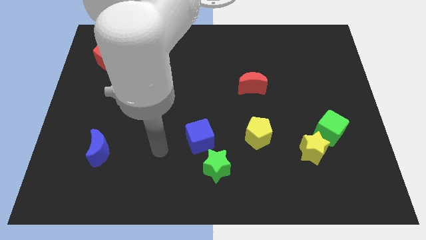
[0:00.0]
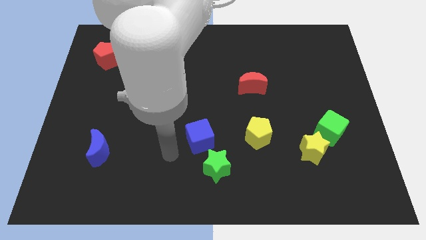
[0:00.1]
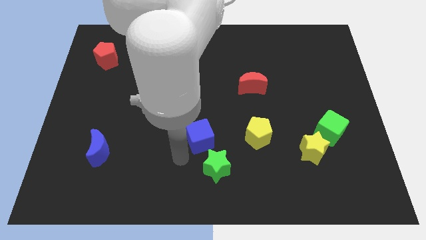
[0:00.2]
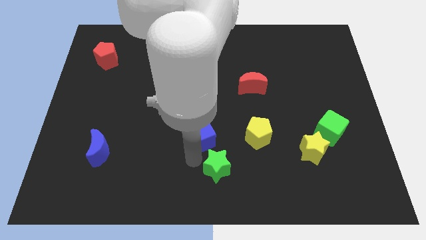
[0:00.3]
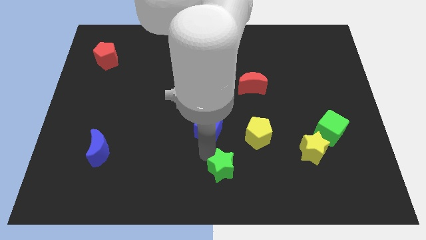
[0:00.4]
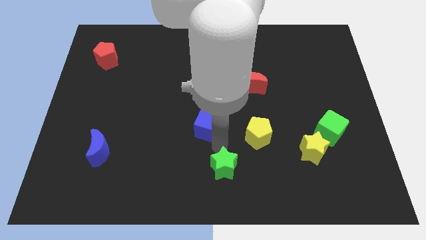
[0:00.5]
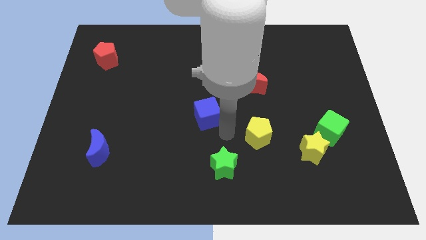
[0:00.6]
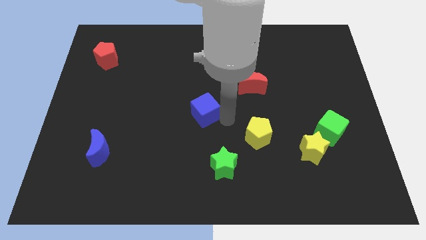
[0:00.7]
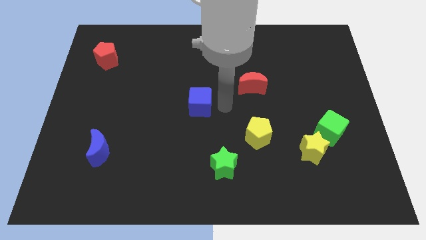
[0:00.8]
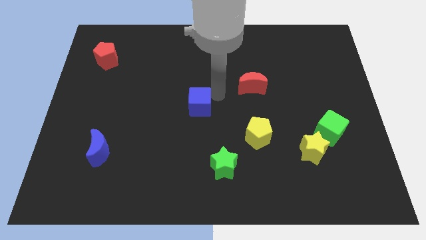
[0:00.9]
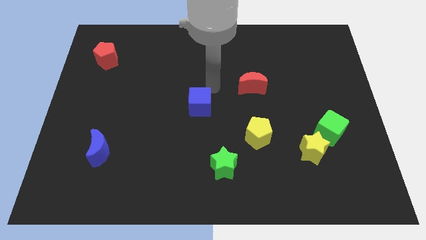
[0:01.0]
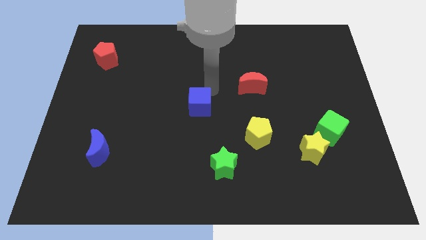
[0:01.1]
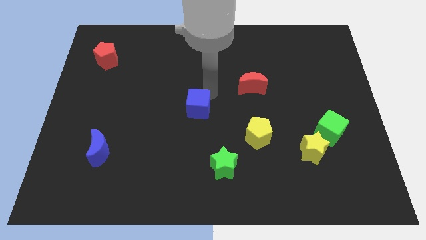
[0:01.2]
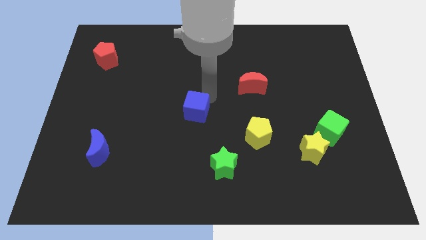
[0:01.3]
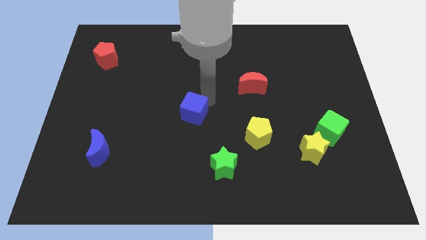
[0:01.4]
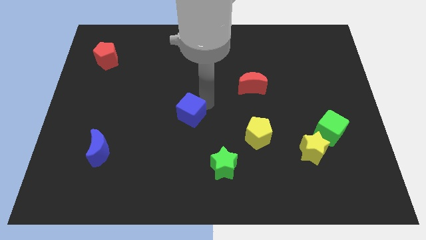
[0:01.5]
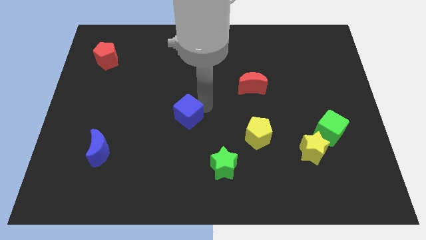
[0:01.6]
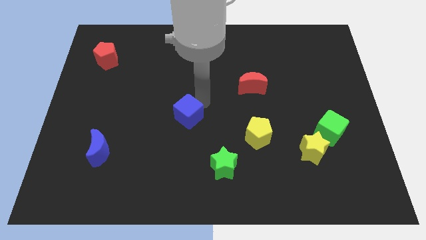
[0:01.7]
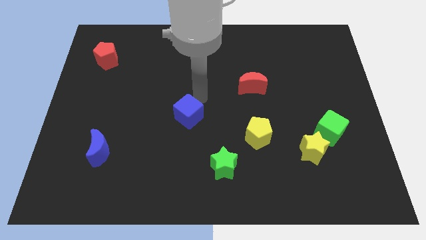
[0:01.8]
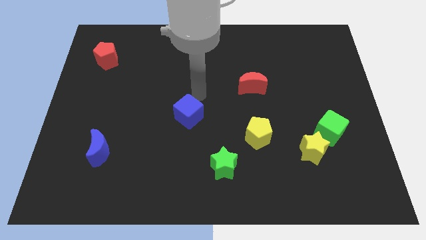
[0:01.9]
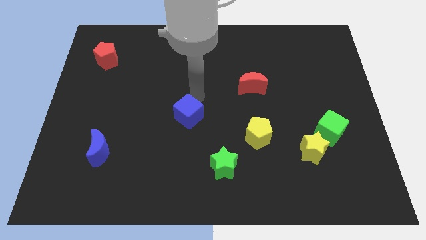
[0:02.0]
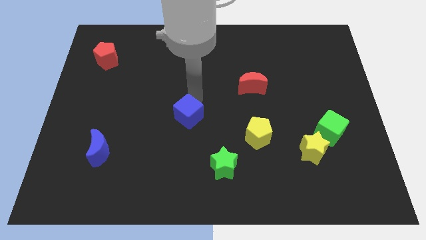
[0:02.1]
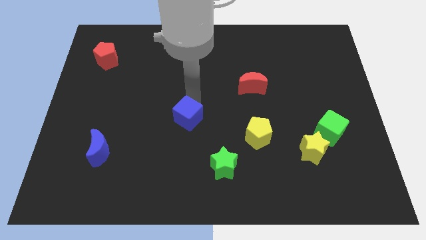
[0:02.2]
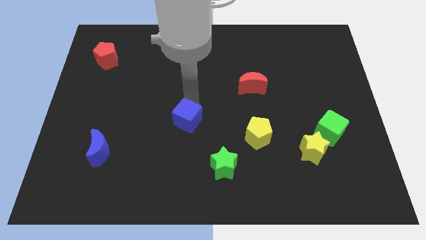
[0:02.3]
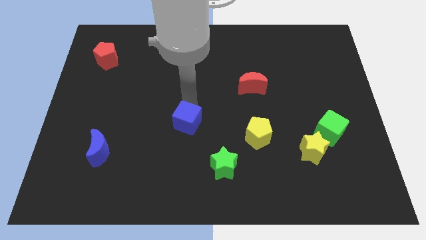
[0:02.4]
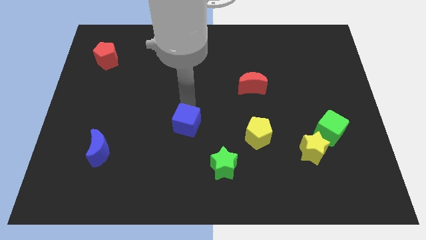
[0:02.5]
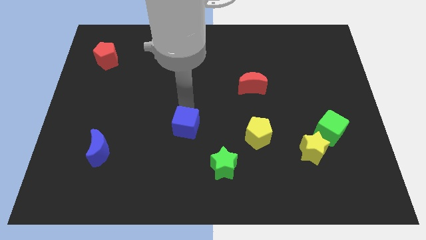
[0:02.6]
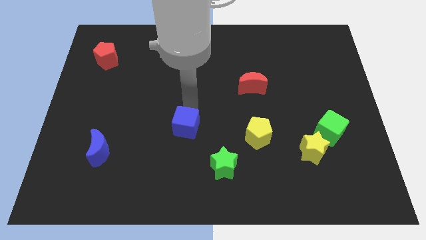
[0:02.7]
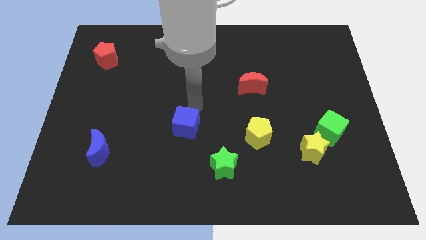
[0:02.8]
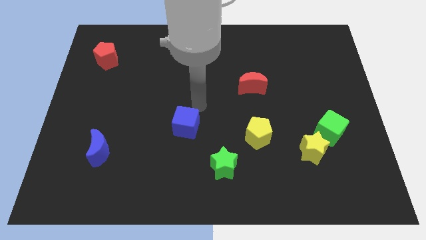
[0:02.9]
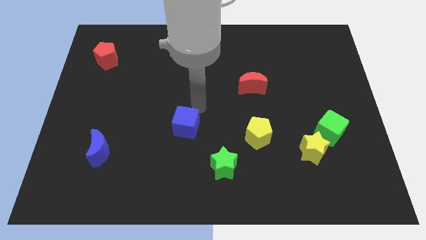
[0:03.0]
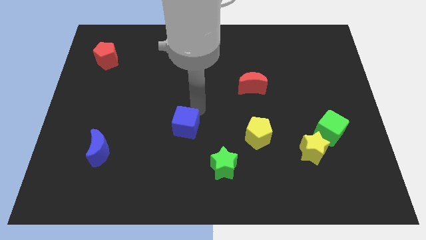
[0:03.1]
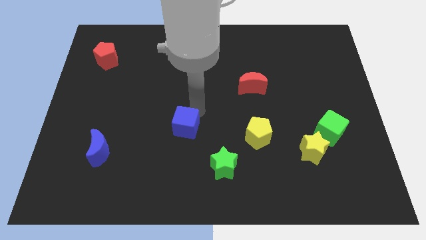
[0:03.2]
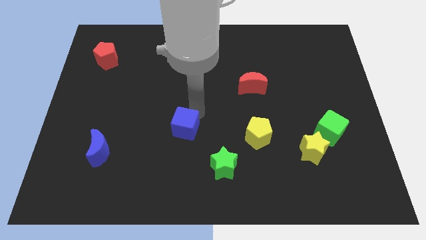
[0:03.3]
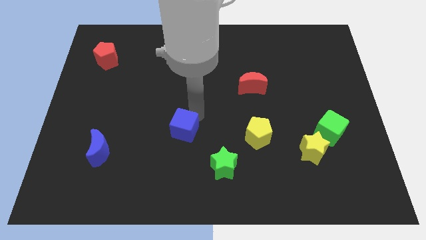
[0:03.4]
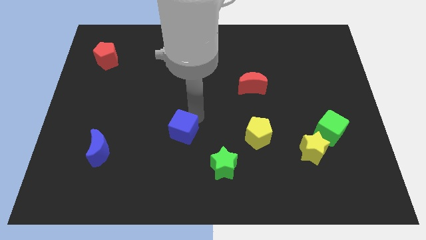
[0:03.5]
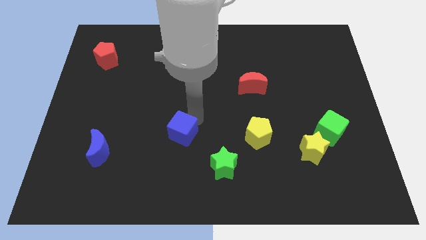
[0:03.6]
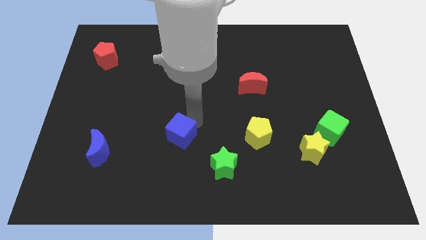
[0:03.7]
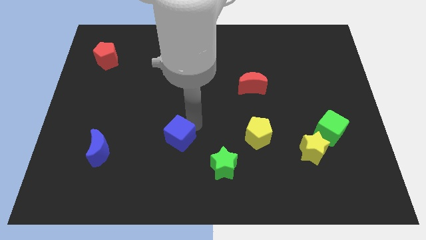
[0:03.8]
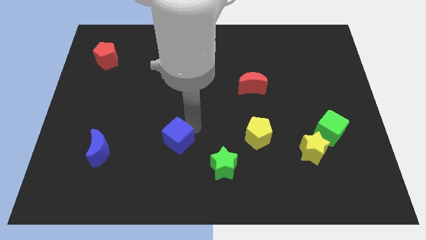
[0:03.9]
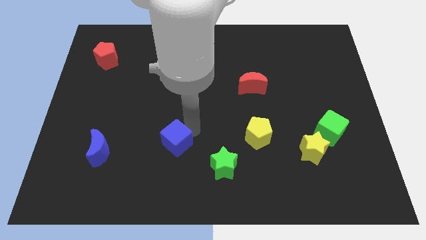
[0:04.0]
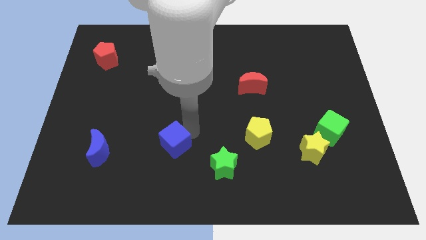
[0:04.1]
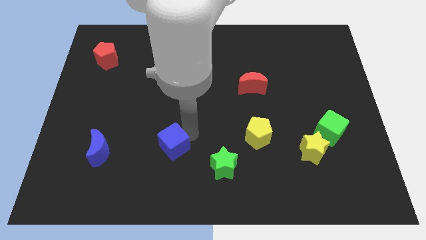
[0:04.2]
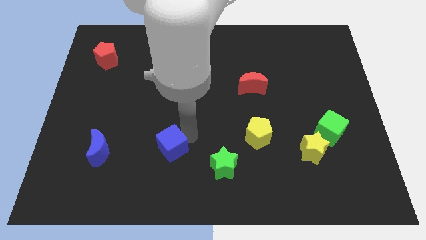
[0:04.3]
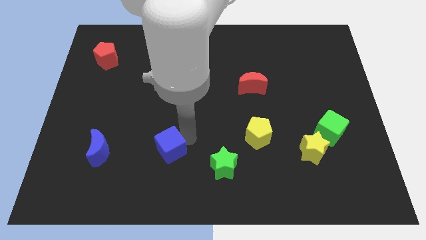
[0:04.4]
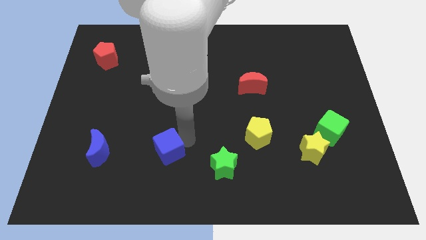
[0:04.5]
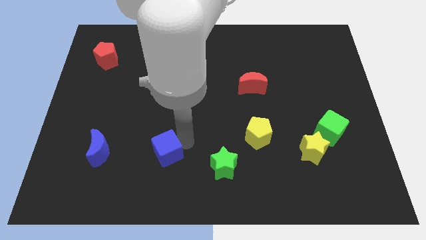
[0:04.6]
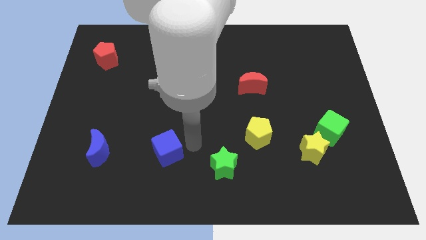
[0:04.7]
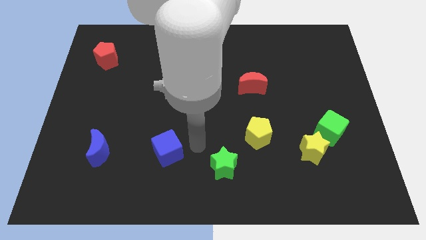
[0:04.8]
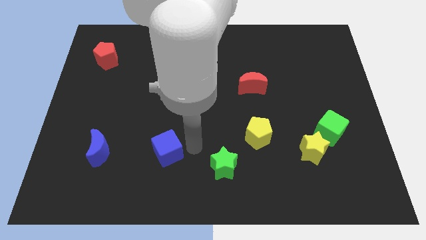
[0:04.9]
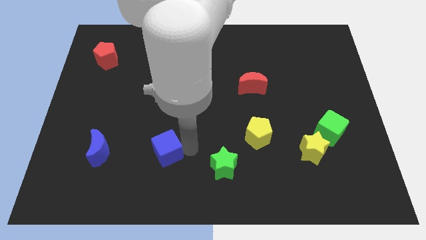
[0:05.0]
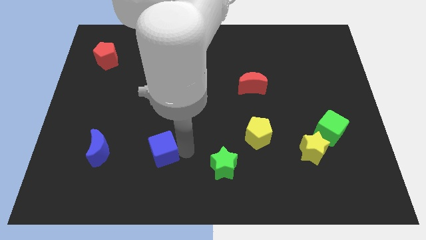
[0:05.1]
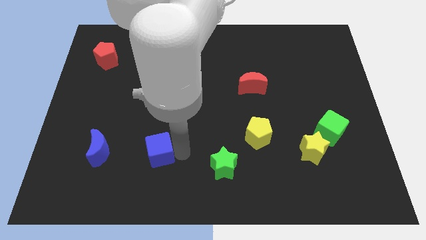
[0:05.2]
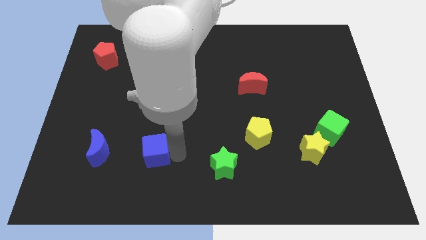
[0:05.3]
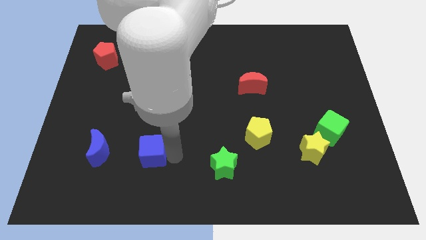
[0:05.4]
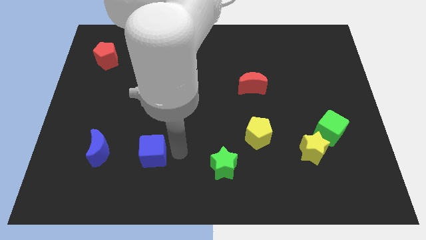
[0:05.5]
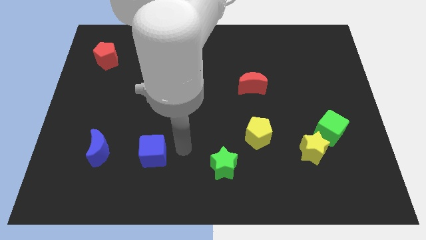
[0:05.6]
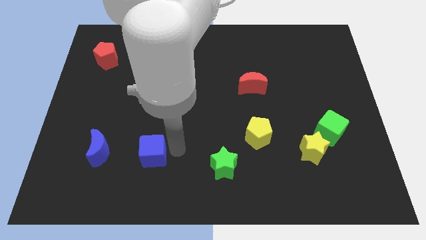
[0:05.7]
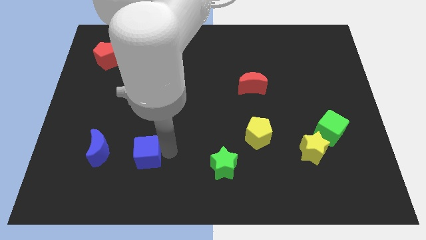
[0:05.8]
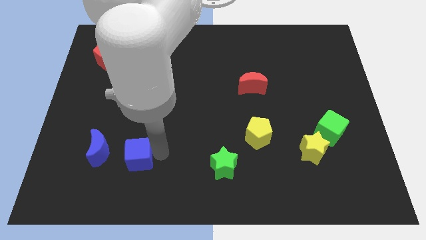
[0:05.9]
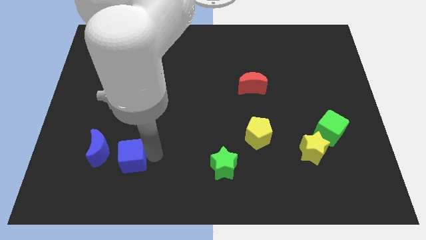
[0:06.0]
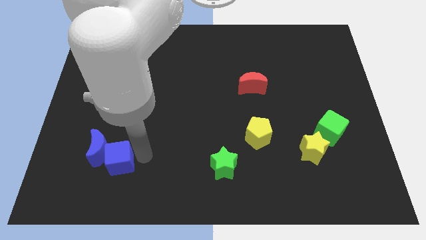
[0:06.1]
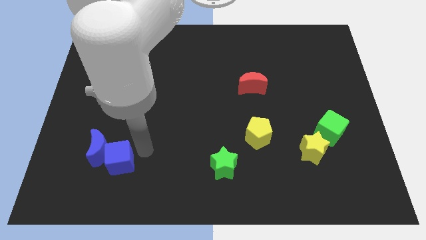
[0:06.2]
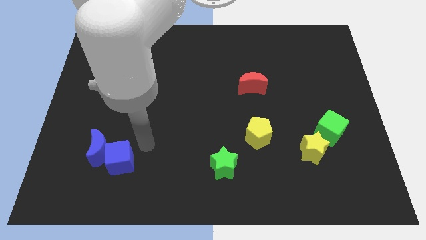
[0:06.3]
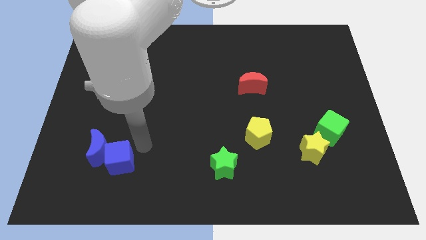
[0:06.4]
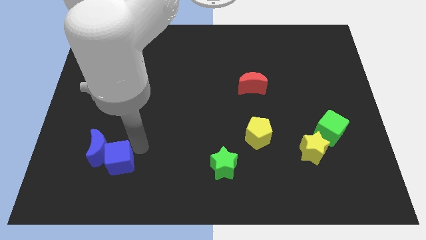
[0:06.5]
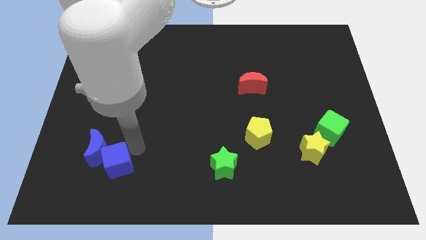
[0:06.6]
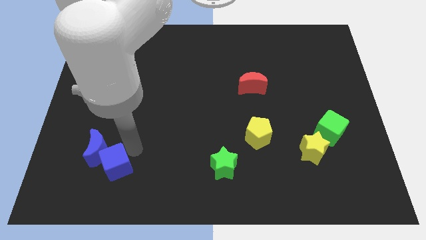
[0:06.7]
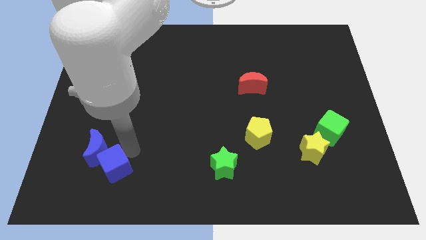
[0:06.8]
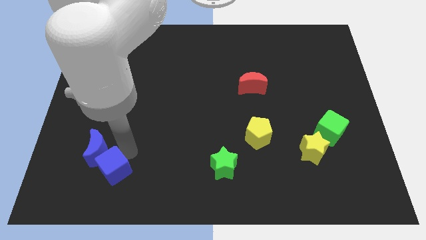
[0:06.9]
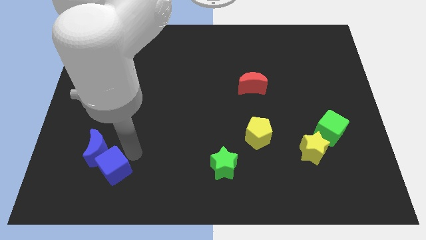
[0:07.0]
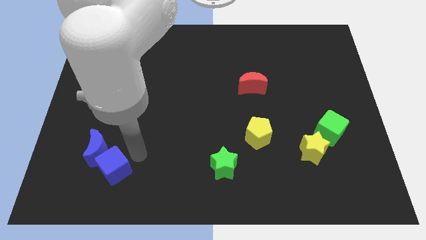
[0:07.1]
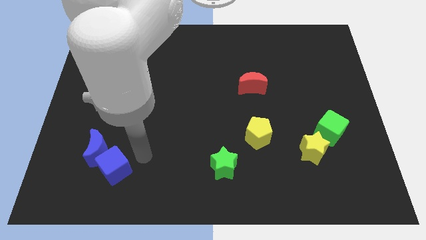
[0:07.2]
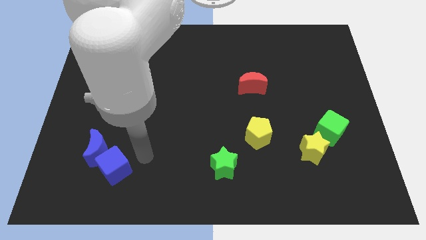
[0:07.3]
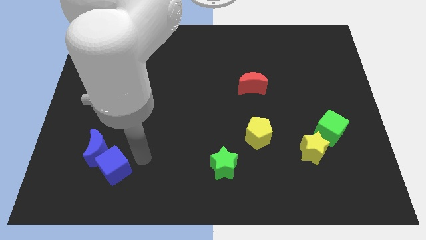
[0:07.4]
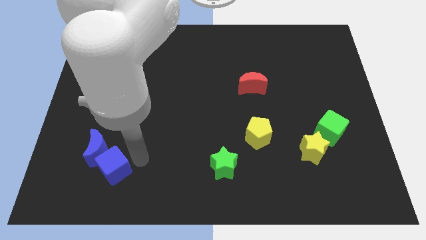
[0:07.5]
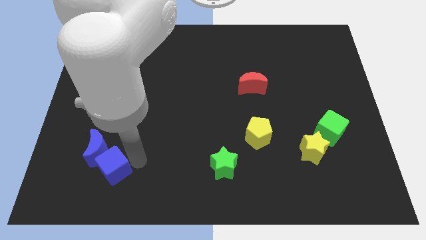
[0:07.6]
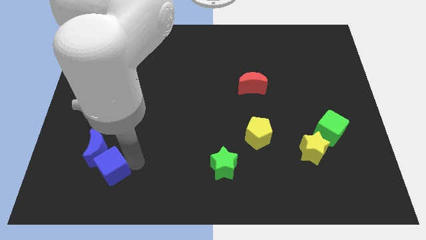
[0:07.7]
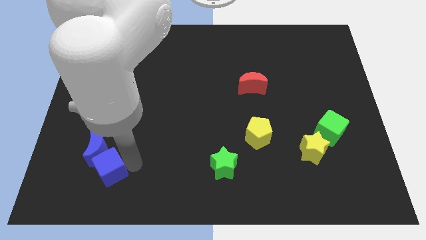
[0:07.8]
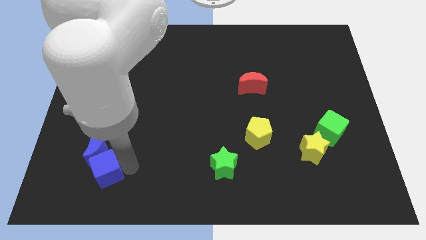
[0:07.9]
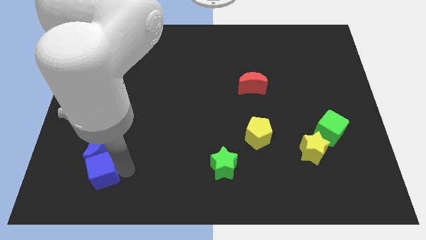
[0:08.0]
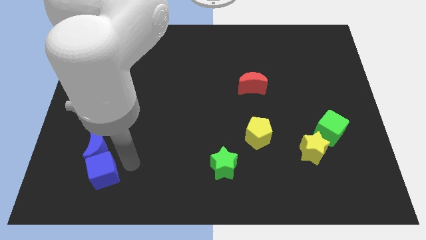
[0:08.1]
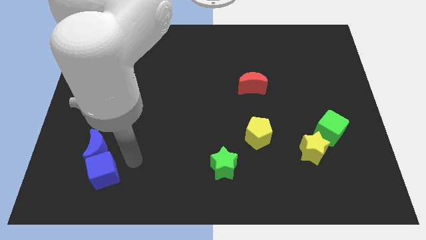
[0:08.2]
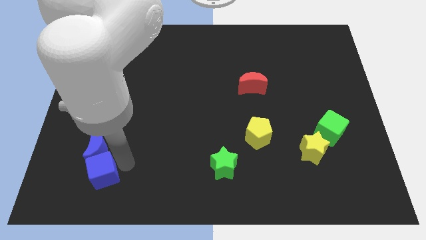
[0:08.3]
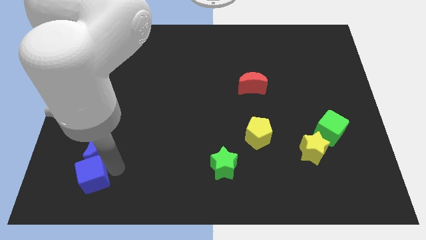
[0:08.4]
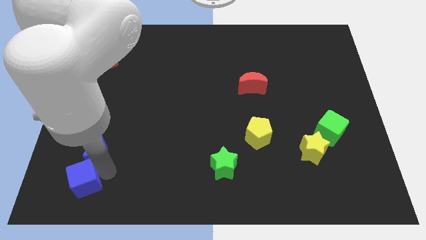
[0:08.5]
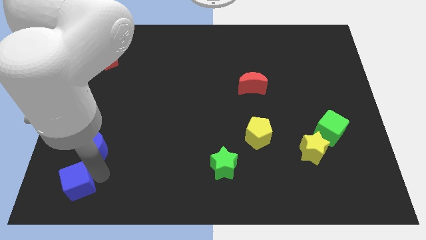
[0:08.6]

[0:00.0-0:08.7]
push the blue cube to the bottom left corner
